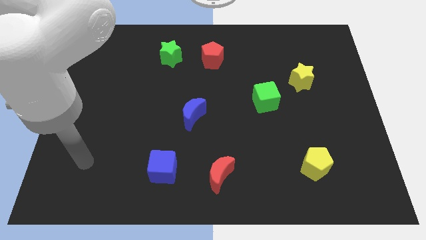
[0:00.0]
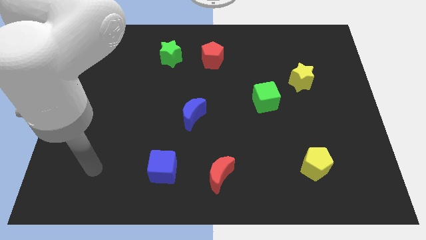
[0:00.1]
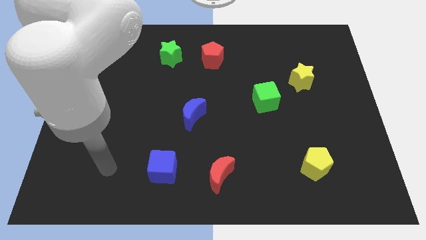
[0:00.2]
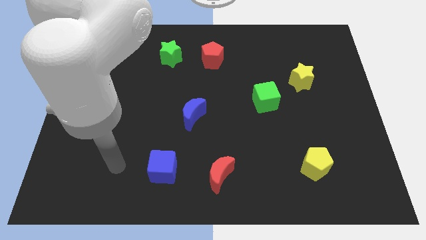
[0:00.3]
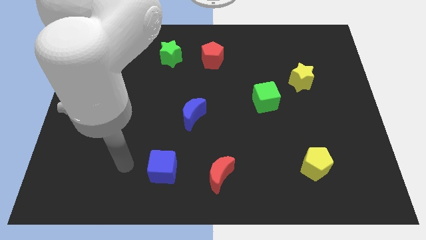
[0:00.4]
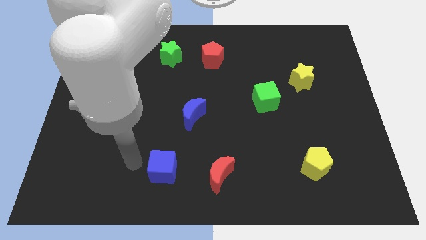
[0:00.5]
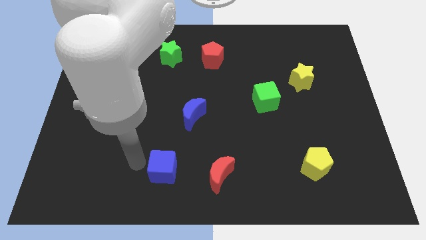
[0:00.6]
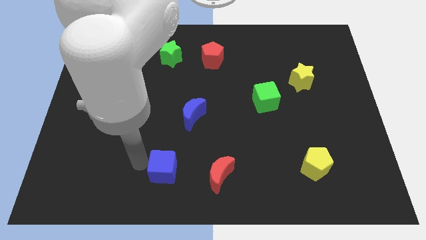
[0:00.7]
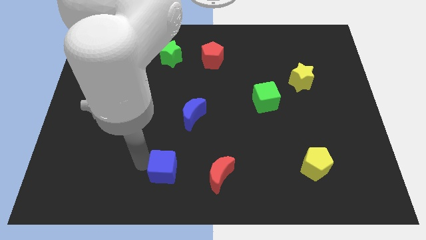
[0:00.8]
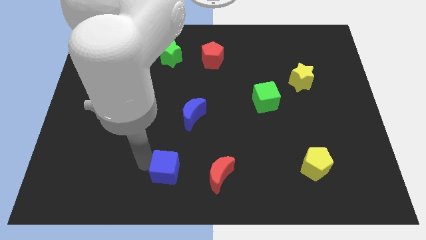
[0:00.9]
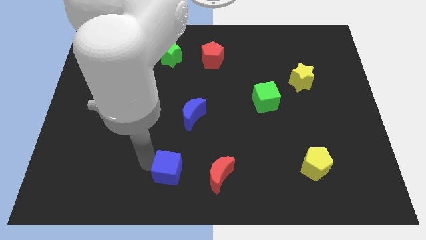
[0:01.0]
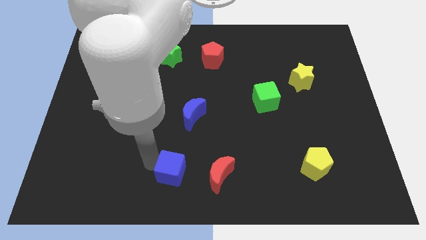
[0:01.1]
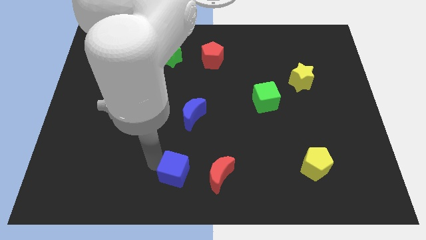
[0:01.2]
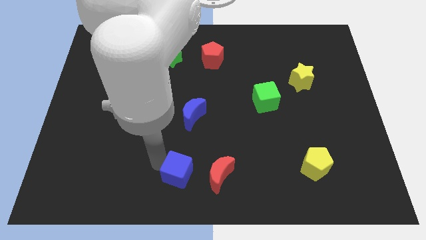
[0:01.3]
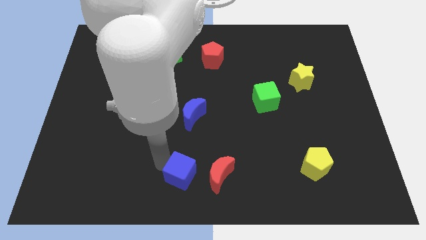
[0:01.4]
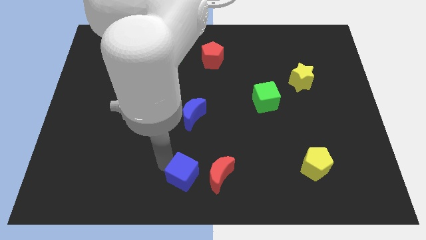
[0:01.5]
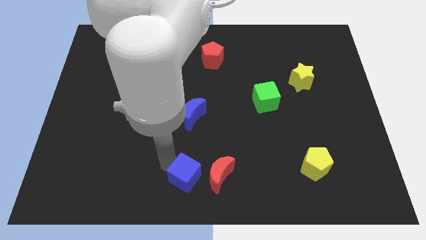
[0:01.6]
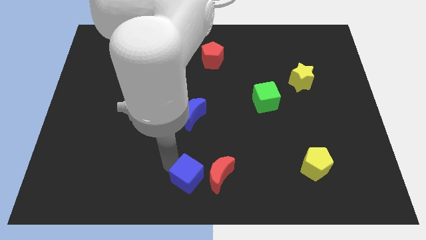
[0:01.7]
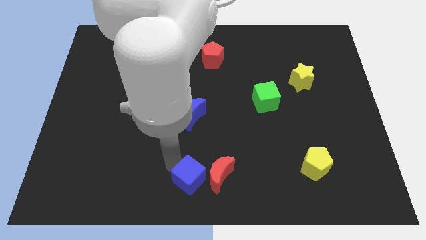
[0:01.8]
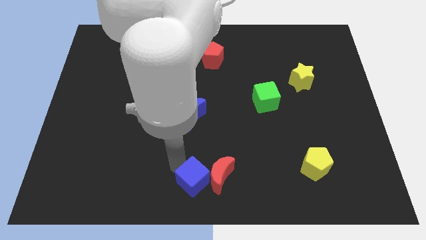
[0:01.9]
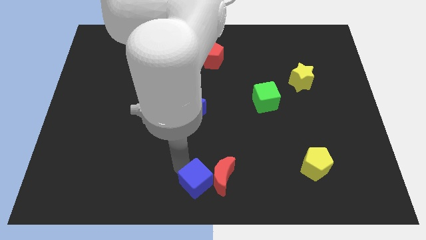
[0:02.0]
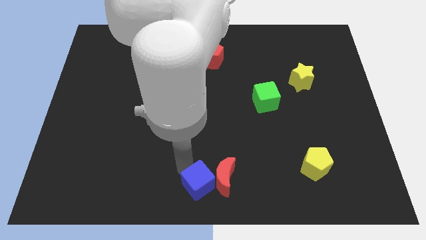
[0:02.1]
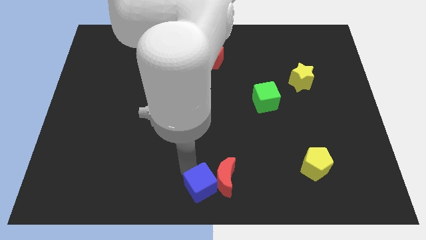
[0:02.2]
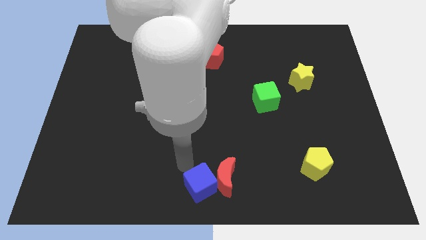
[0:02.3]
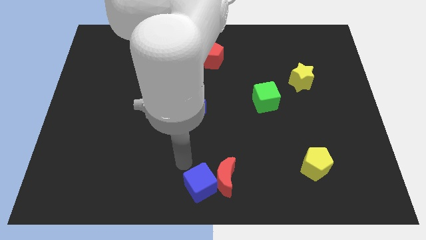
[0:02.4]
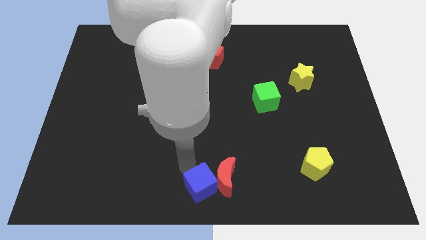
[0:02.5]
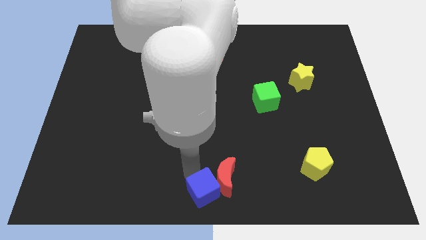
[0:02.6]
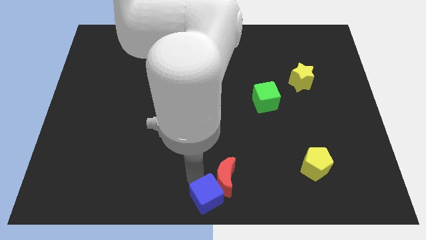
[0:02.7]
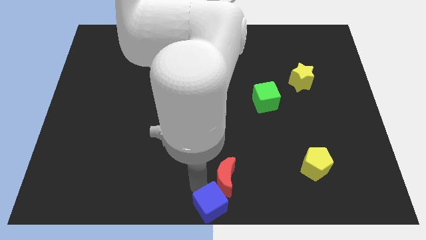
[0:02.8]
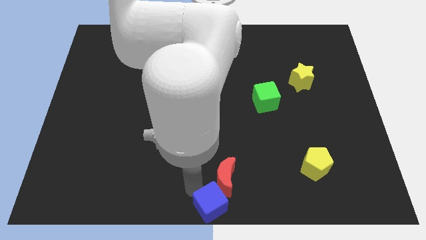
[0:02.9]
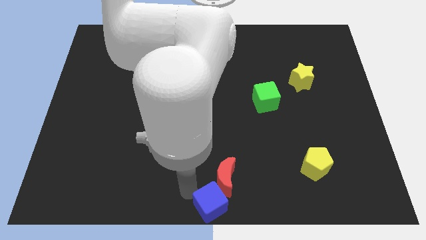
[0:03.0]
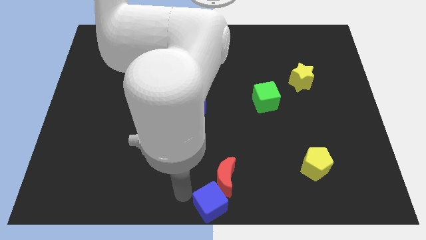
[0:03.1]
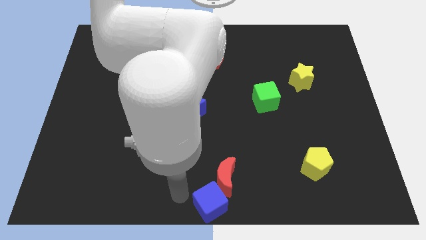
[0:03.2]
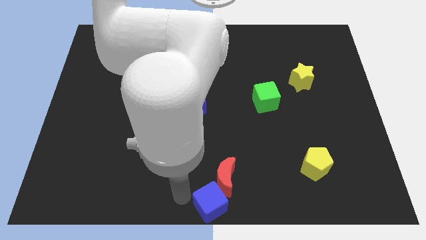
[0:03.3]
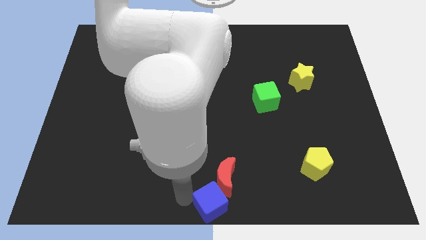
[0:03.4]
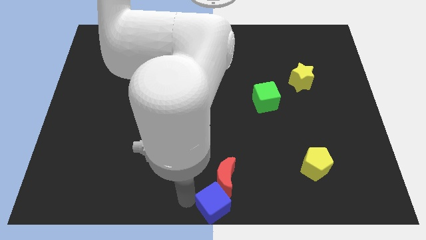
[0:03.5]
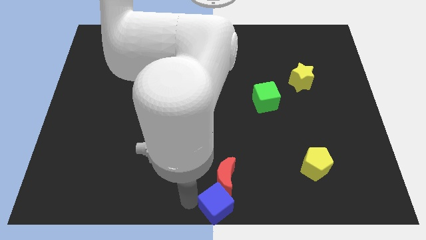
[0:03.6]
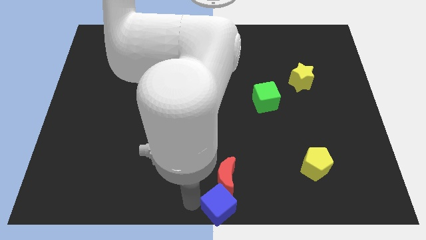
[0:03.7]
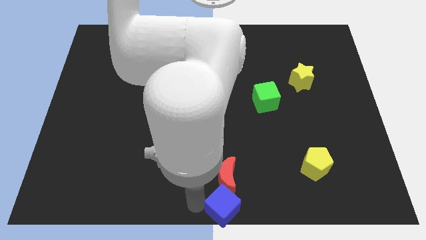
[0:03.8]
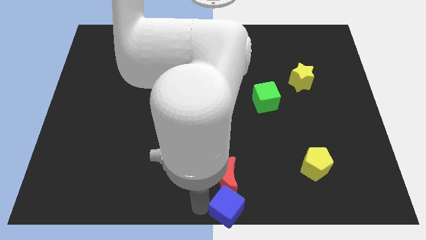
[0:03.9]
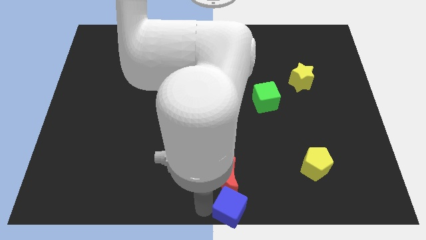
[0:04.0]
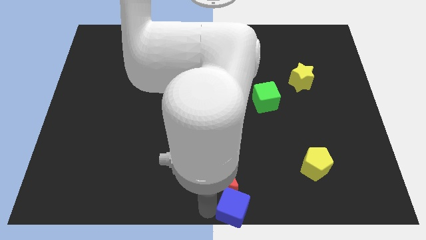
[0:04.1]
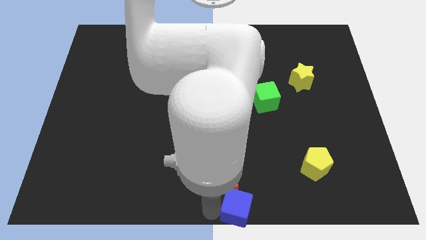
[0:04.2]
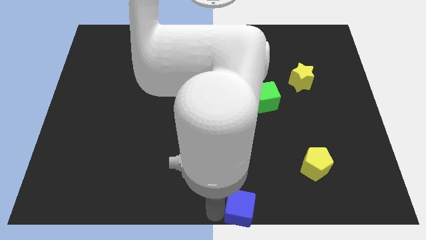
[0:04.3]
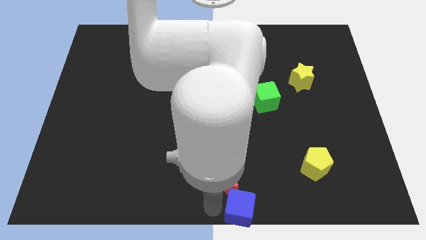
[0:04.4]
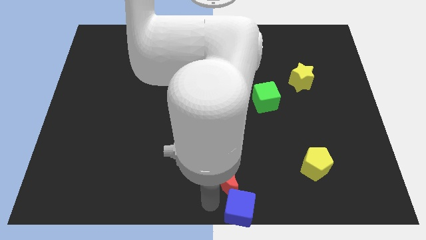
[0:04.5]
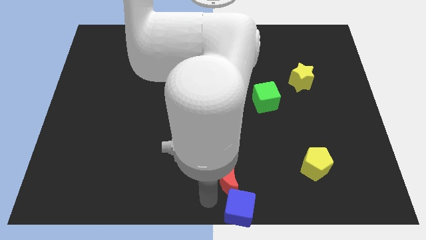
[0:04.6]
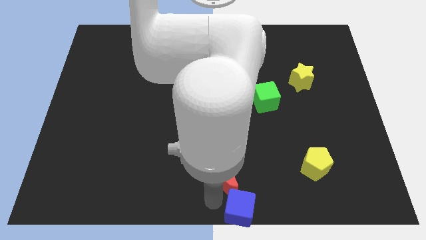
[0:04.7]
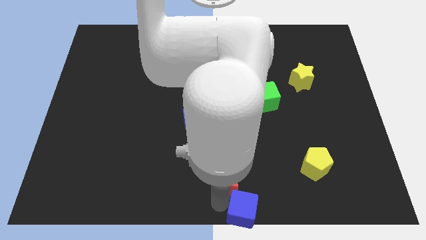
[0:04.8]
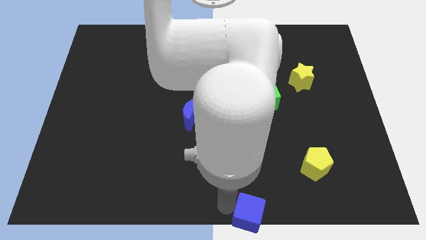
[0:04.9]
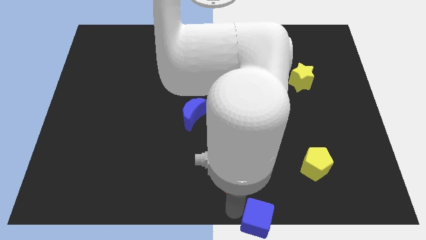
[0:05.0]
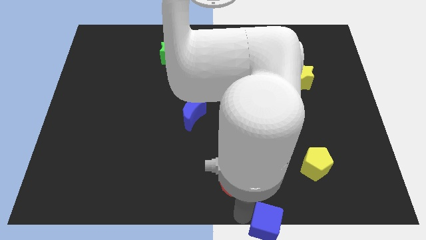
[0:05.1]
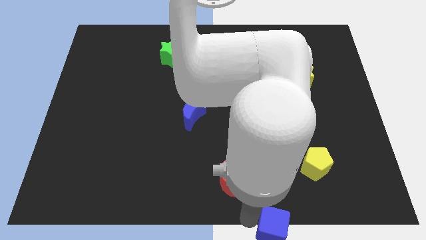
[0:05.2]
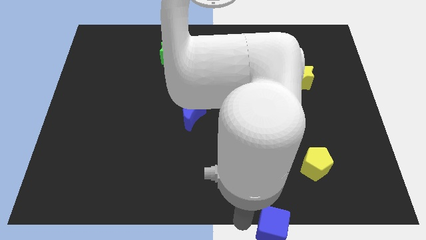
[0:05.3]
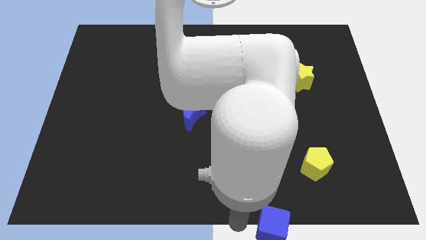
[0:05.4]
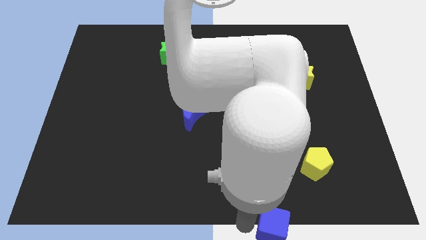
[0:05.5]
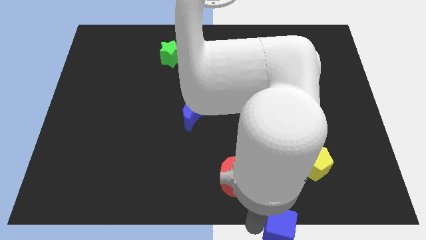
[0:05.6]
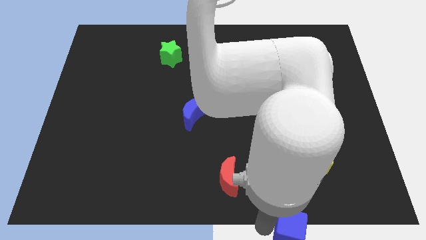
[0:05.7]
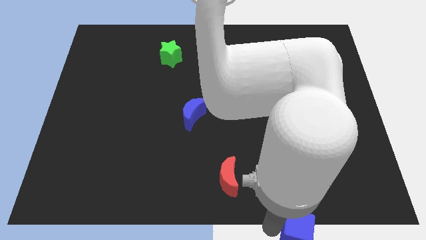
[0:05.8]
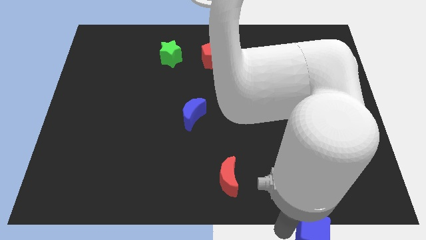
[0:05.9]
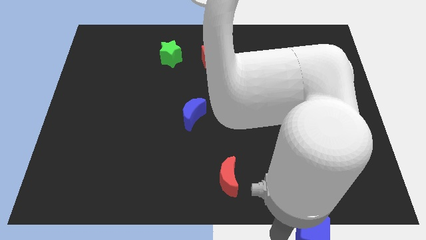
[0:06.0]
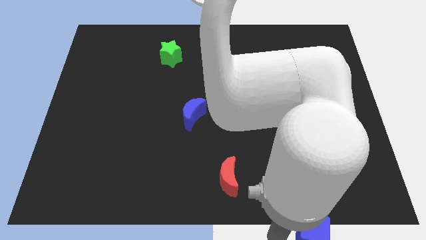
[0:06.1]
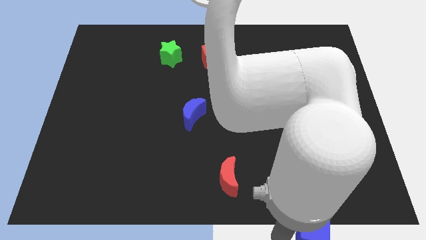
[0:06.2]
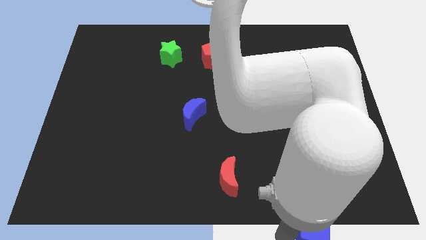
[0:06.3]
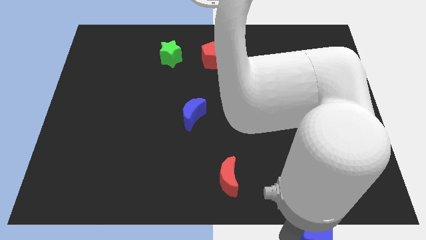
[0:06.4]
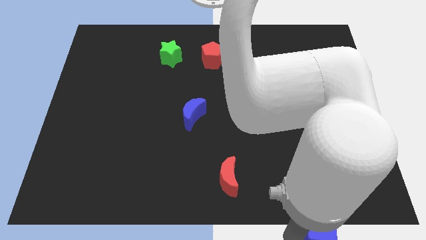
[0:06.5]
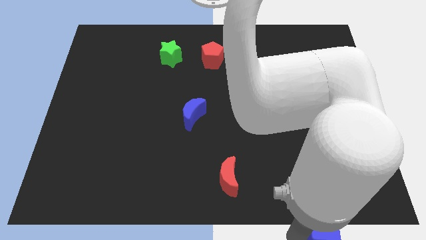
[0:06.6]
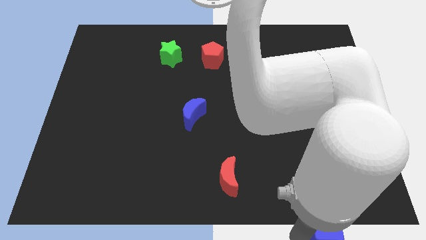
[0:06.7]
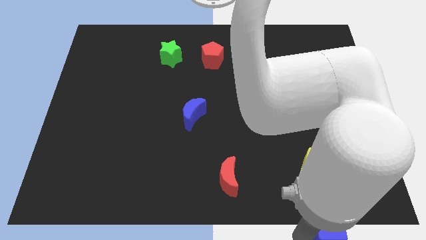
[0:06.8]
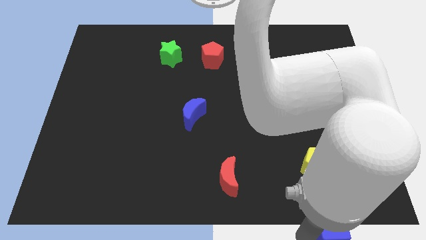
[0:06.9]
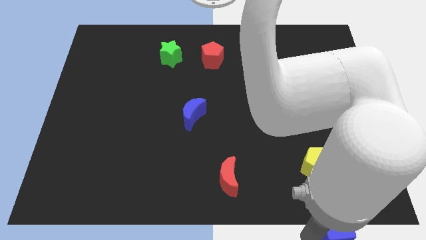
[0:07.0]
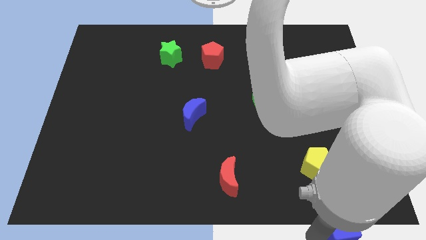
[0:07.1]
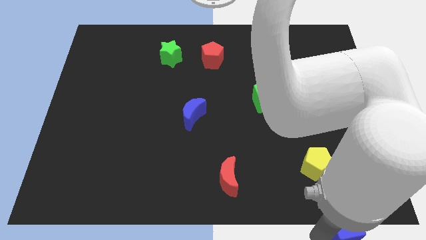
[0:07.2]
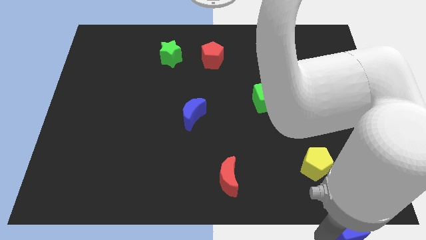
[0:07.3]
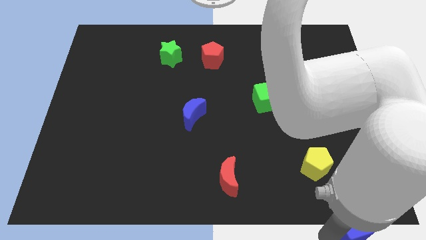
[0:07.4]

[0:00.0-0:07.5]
push the blue cube to the lower right corner

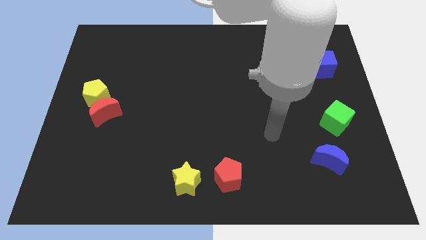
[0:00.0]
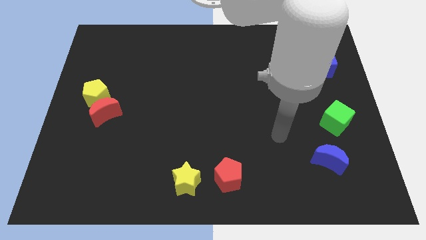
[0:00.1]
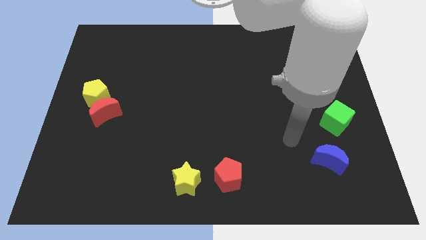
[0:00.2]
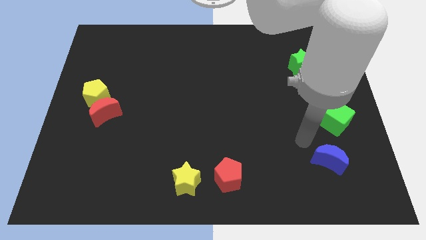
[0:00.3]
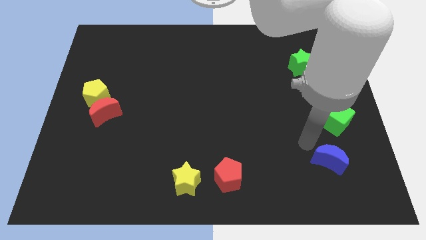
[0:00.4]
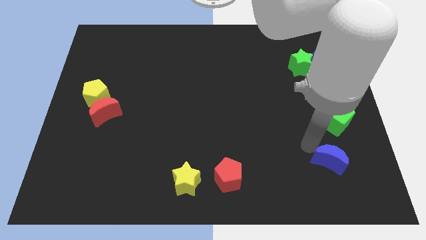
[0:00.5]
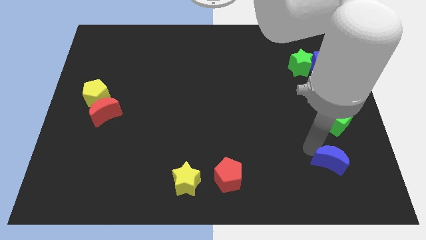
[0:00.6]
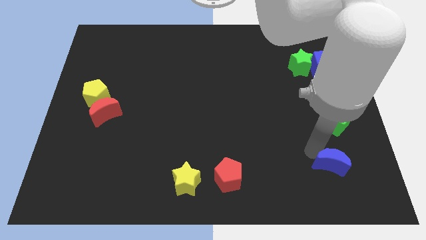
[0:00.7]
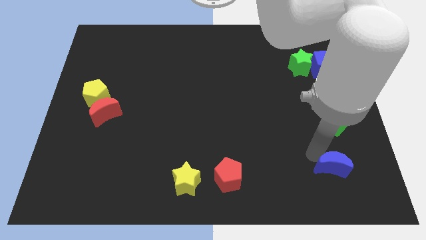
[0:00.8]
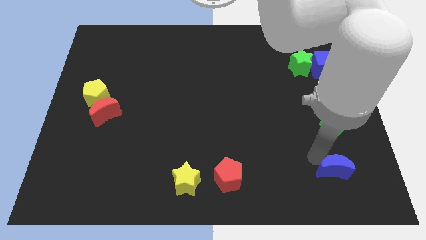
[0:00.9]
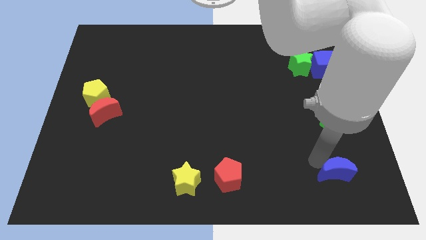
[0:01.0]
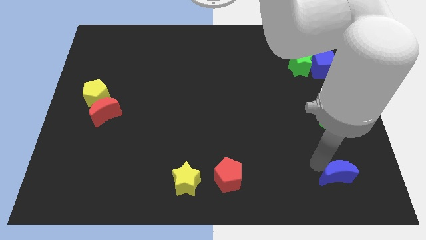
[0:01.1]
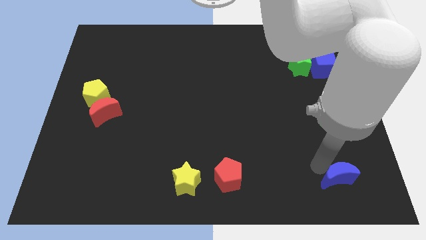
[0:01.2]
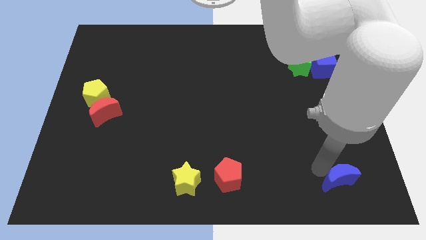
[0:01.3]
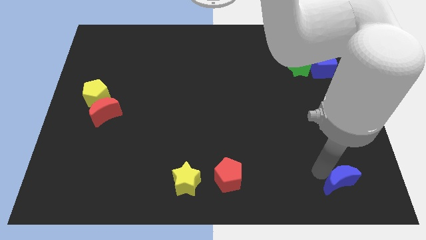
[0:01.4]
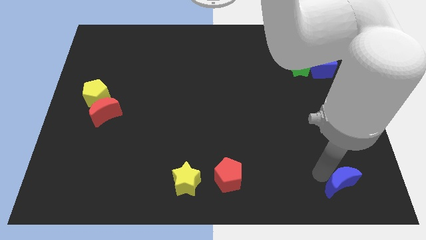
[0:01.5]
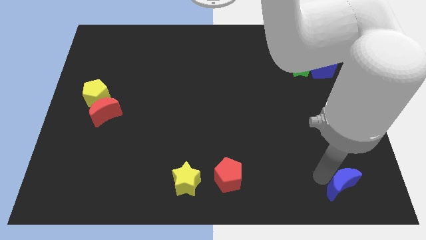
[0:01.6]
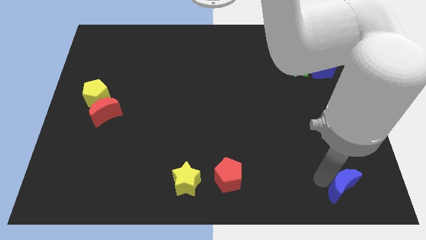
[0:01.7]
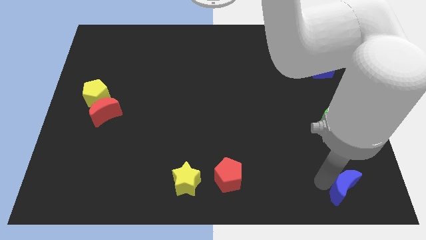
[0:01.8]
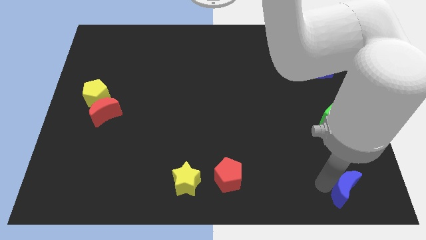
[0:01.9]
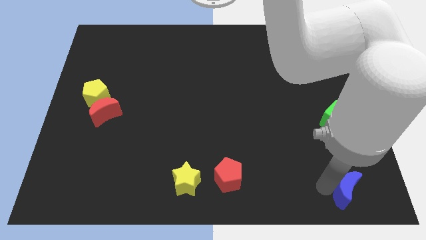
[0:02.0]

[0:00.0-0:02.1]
put the blue moon to the bottom right corner
